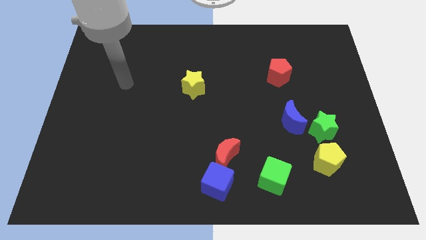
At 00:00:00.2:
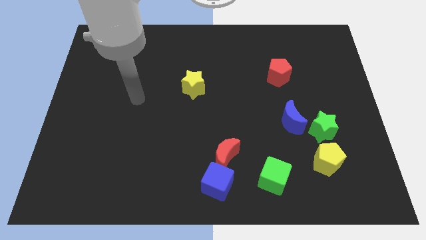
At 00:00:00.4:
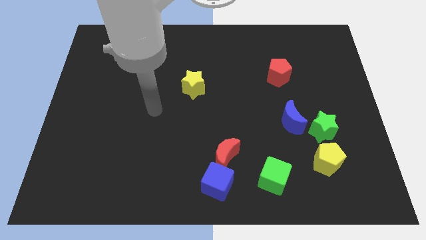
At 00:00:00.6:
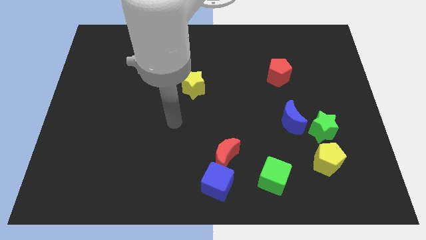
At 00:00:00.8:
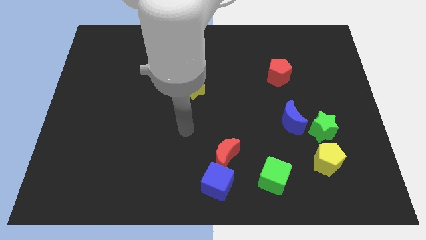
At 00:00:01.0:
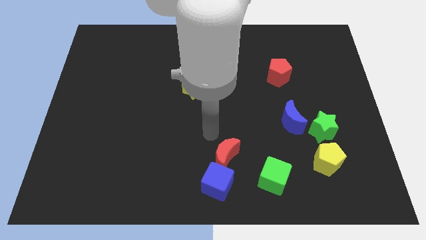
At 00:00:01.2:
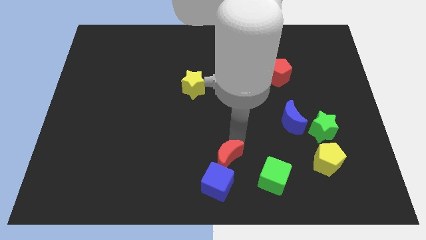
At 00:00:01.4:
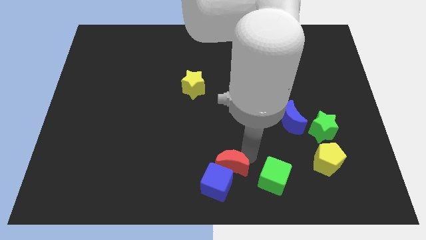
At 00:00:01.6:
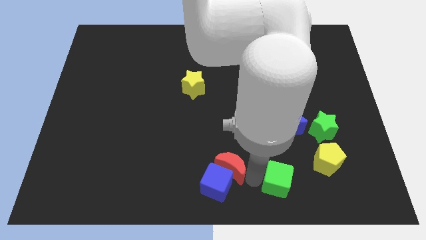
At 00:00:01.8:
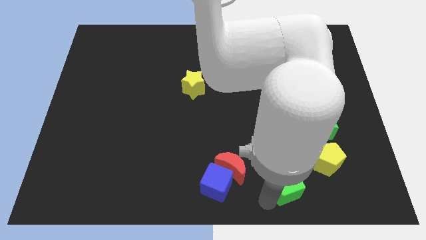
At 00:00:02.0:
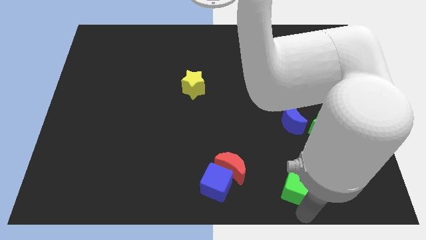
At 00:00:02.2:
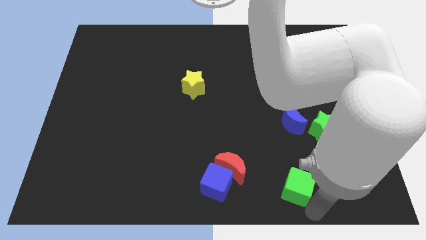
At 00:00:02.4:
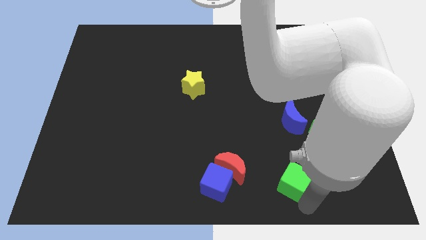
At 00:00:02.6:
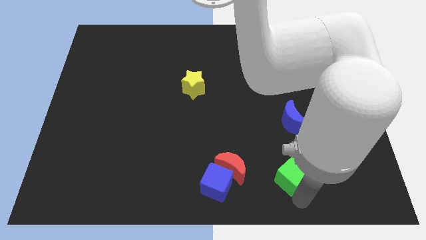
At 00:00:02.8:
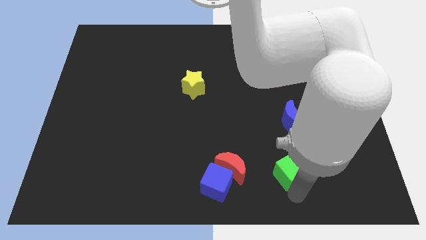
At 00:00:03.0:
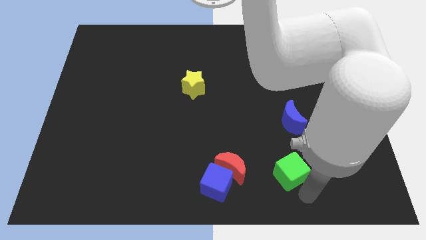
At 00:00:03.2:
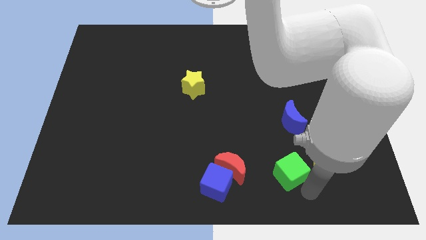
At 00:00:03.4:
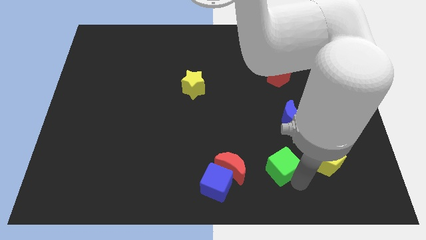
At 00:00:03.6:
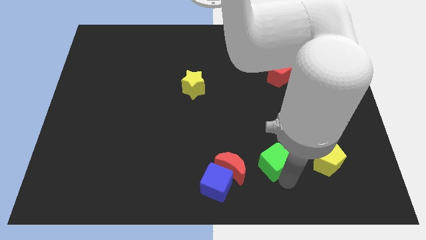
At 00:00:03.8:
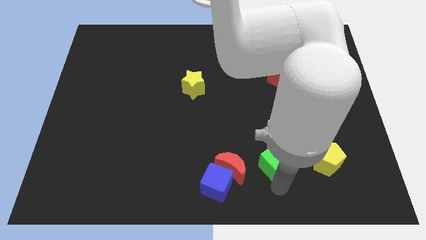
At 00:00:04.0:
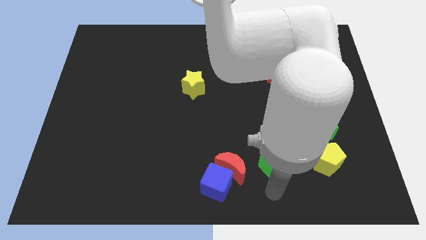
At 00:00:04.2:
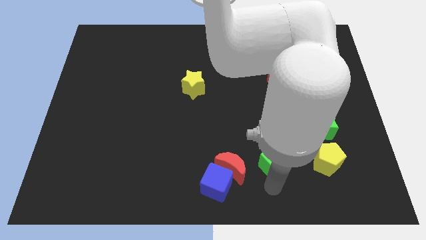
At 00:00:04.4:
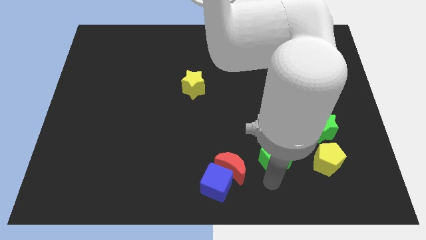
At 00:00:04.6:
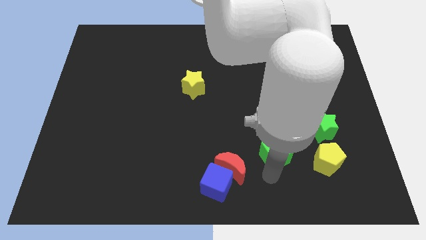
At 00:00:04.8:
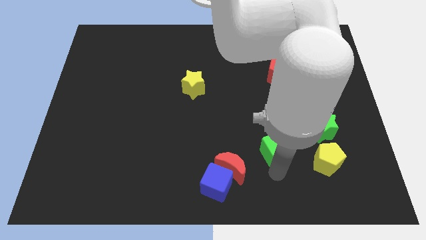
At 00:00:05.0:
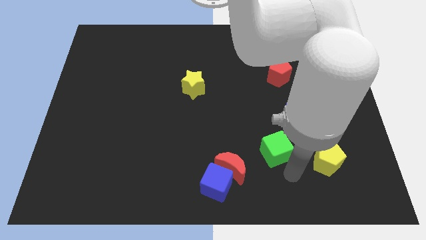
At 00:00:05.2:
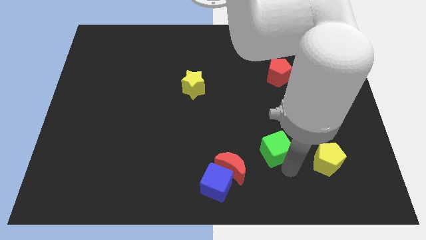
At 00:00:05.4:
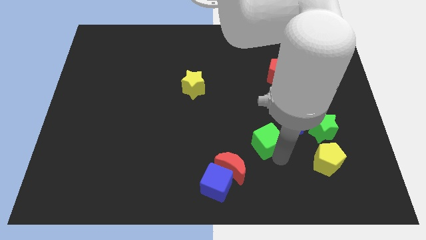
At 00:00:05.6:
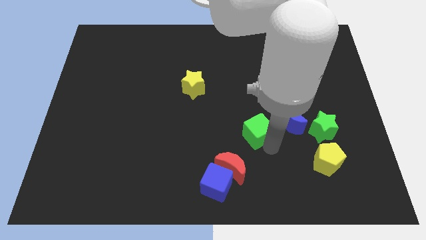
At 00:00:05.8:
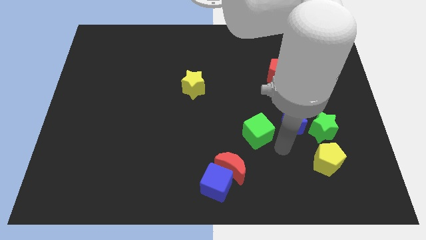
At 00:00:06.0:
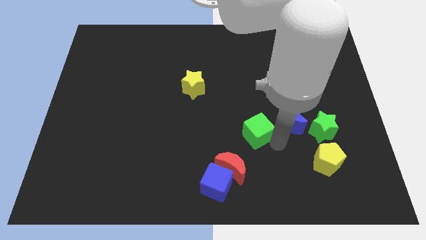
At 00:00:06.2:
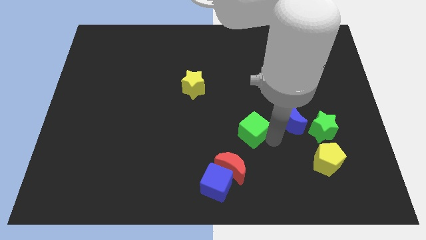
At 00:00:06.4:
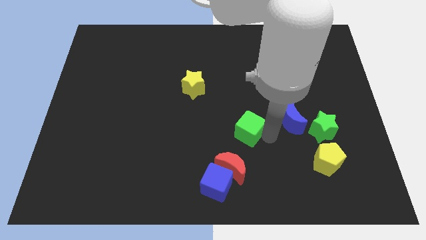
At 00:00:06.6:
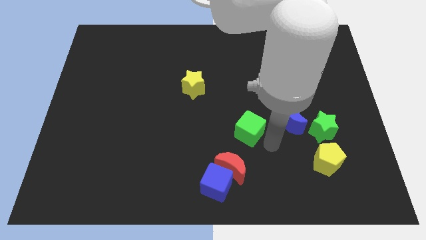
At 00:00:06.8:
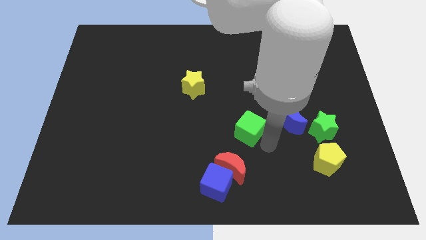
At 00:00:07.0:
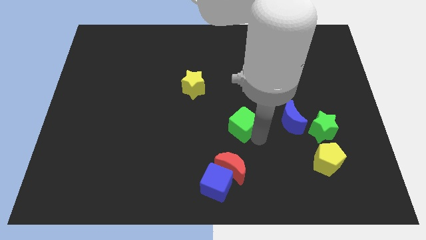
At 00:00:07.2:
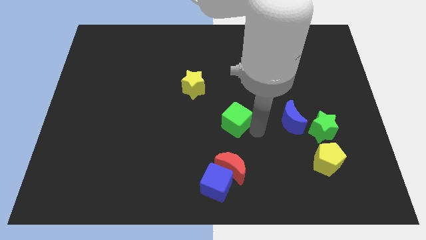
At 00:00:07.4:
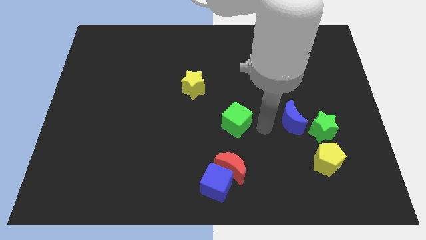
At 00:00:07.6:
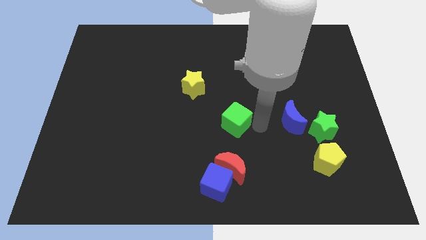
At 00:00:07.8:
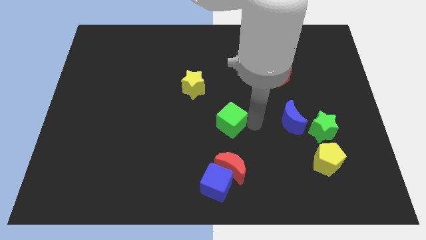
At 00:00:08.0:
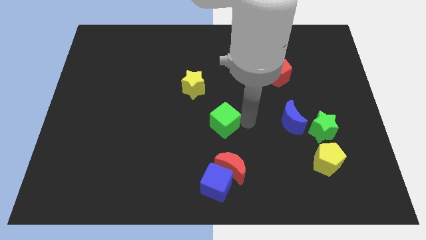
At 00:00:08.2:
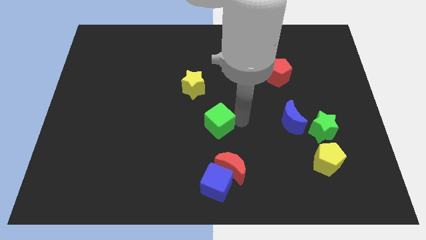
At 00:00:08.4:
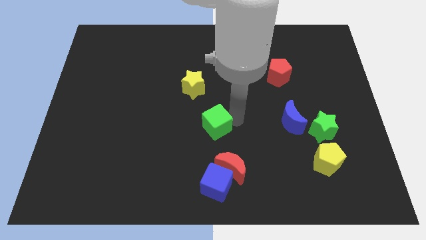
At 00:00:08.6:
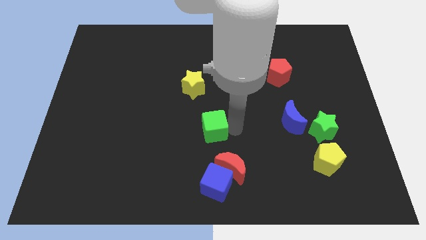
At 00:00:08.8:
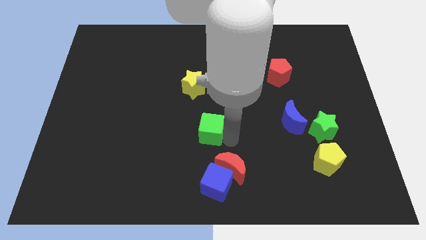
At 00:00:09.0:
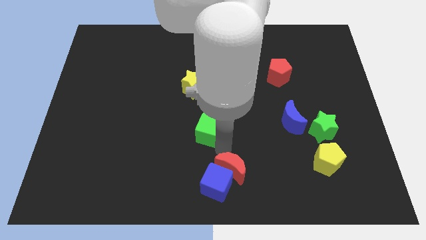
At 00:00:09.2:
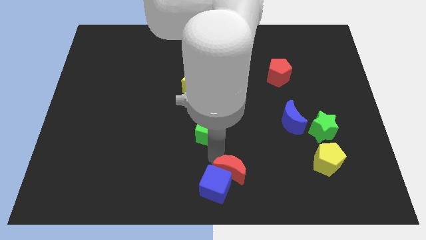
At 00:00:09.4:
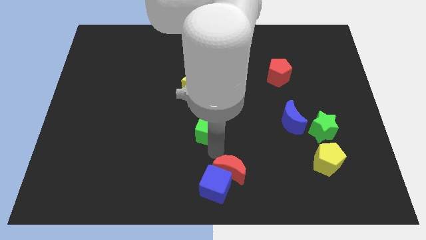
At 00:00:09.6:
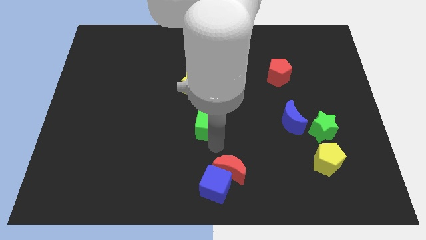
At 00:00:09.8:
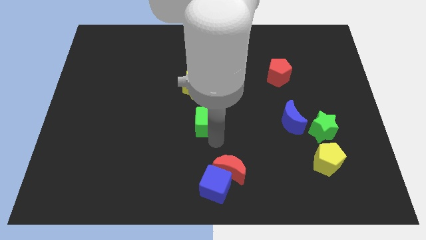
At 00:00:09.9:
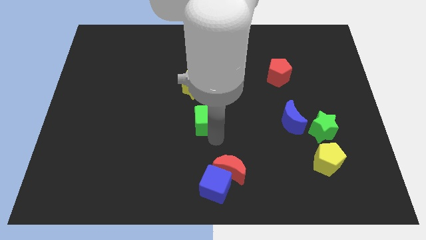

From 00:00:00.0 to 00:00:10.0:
push the green cube upwards and left

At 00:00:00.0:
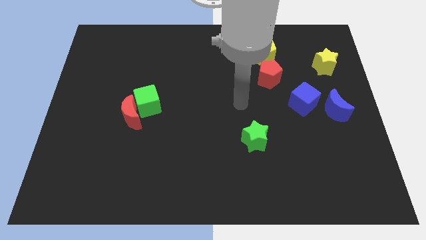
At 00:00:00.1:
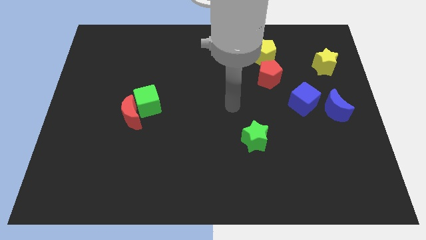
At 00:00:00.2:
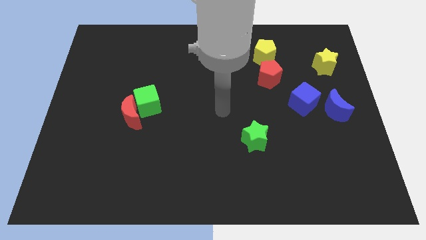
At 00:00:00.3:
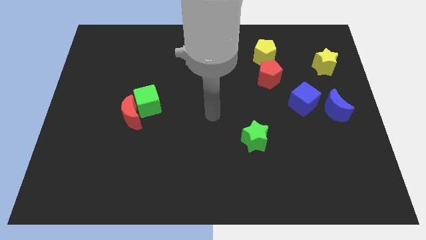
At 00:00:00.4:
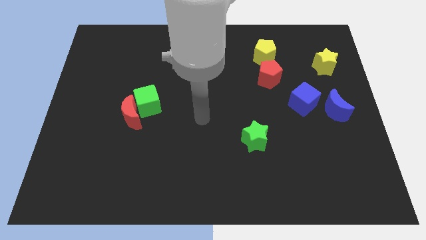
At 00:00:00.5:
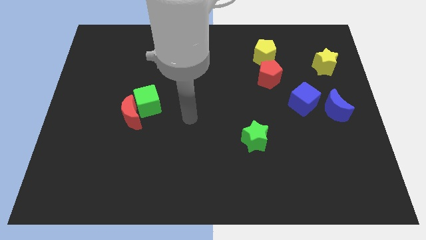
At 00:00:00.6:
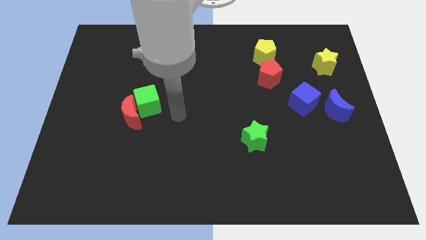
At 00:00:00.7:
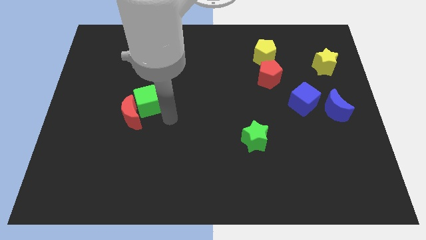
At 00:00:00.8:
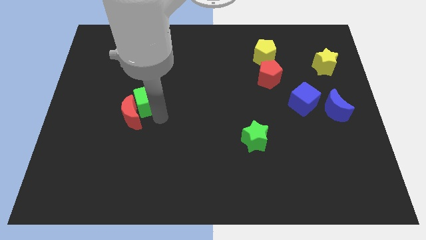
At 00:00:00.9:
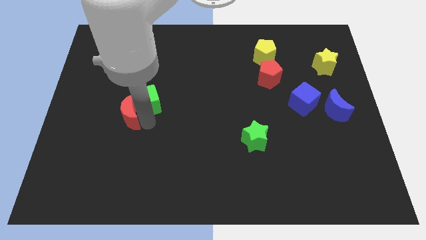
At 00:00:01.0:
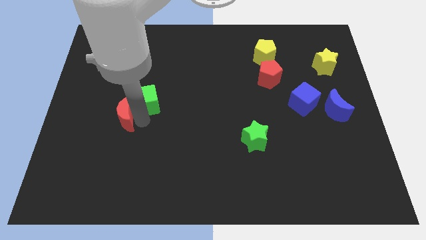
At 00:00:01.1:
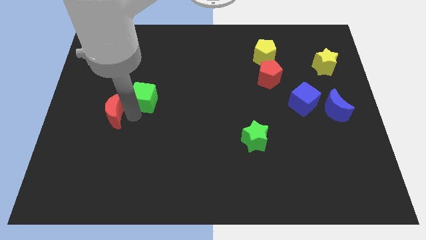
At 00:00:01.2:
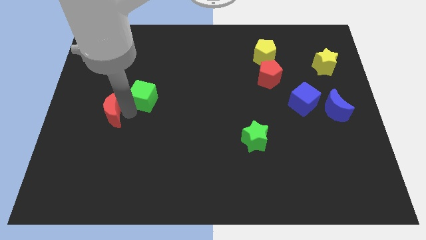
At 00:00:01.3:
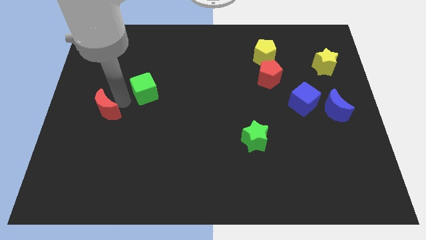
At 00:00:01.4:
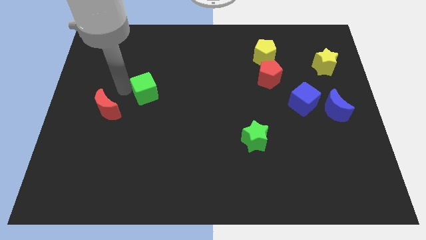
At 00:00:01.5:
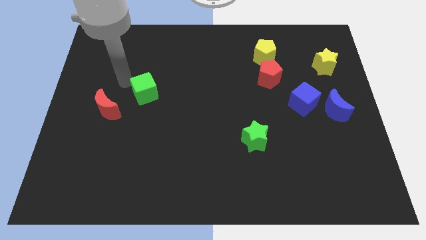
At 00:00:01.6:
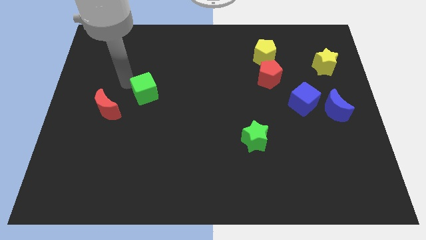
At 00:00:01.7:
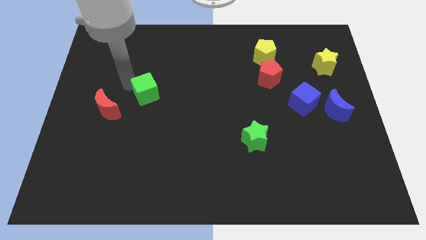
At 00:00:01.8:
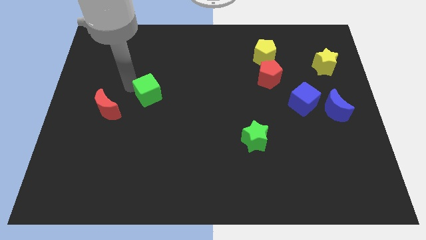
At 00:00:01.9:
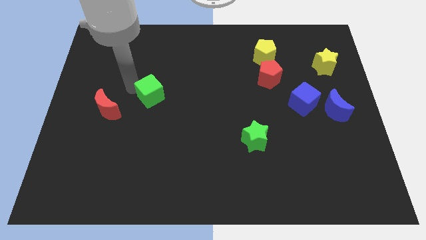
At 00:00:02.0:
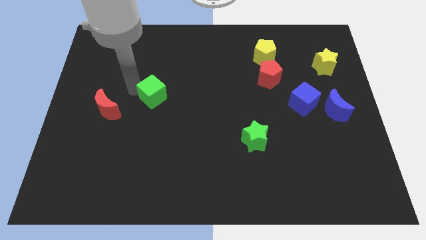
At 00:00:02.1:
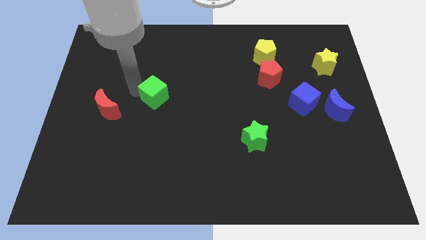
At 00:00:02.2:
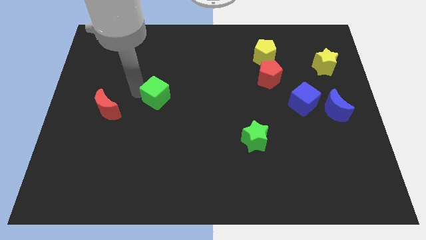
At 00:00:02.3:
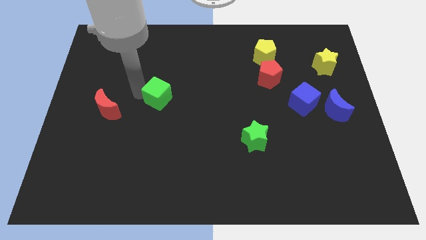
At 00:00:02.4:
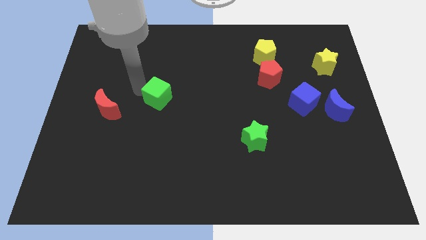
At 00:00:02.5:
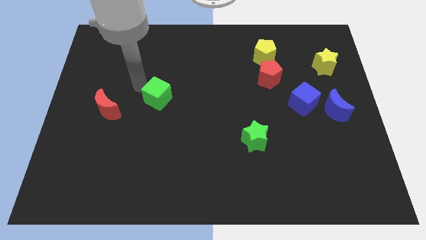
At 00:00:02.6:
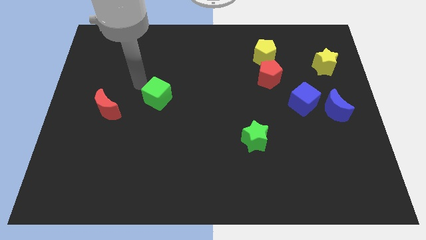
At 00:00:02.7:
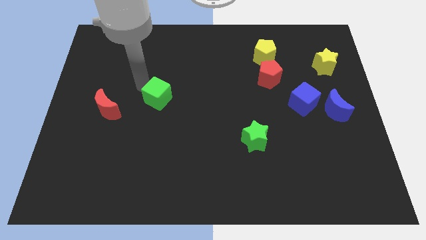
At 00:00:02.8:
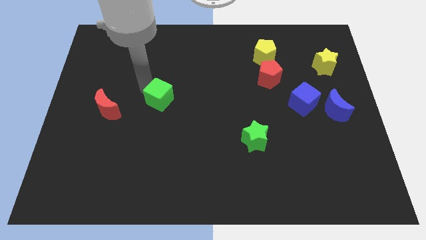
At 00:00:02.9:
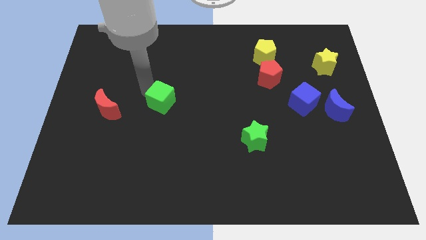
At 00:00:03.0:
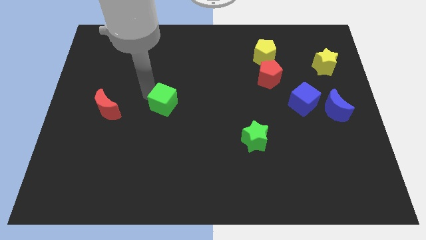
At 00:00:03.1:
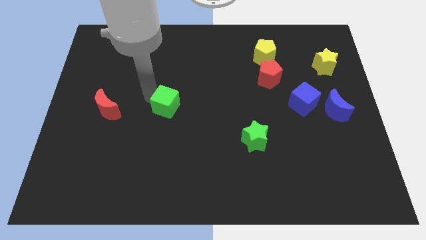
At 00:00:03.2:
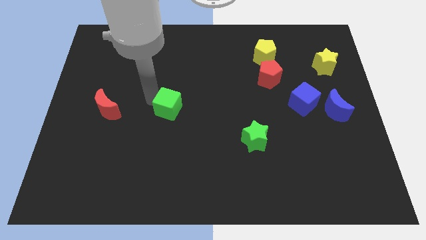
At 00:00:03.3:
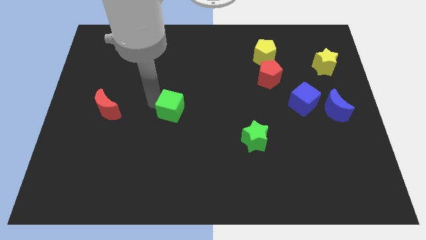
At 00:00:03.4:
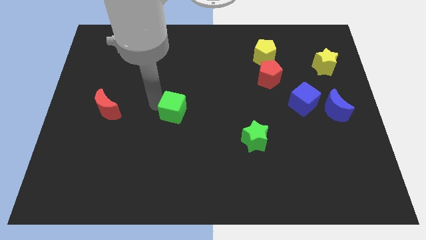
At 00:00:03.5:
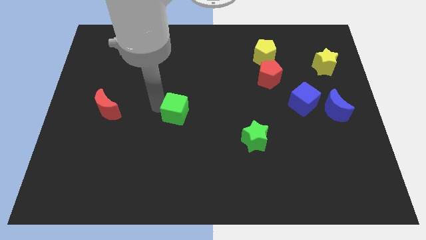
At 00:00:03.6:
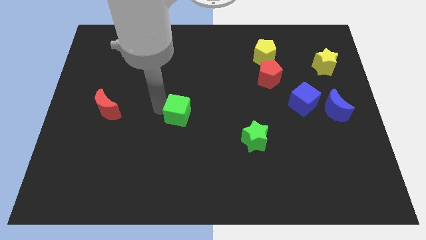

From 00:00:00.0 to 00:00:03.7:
move the green cube right a bit
